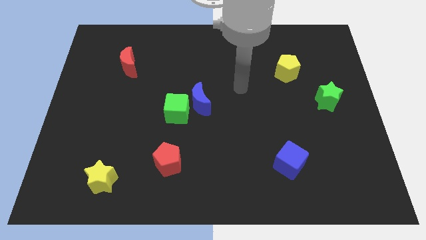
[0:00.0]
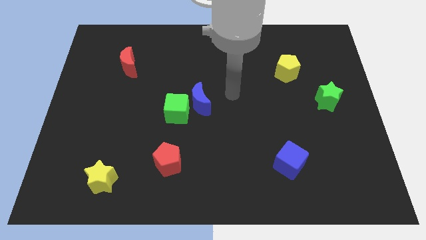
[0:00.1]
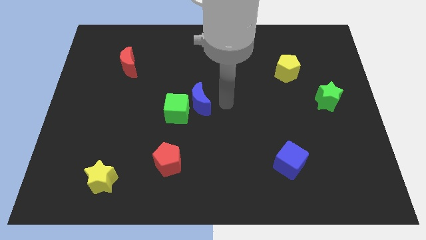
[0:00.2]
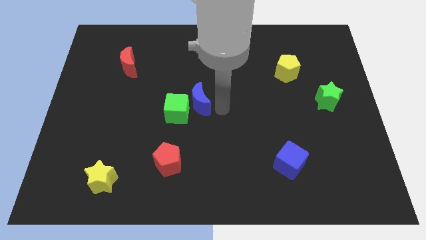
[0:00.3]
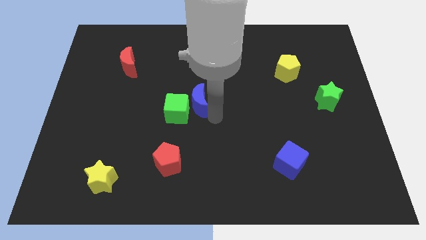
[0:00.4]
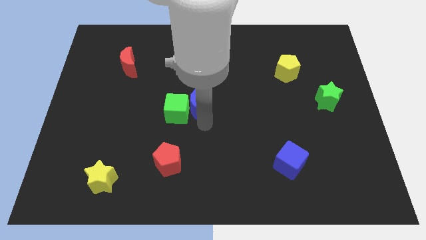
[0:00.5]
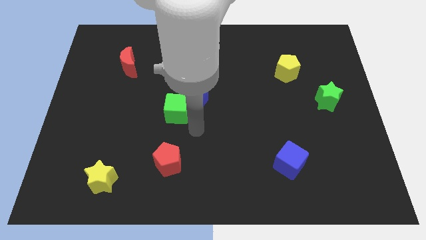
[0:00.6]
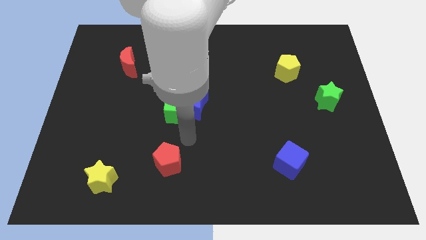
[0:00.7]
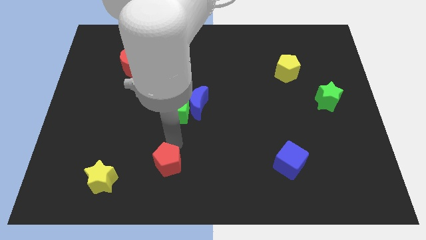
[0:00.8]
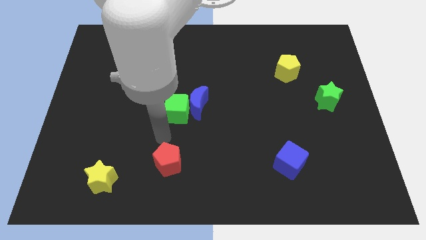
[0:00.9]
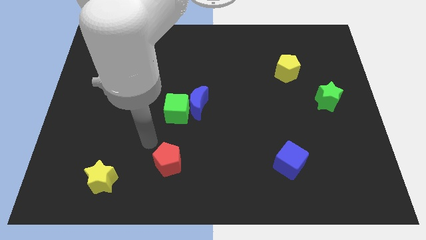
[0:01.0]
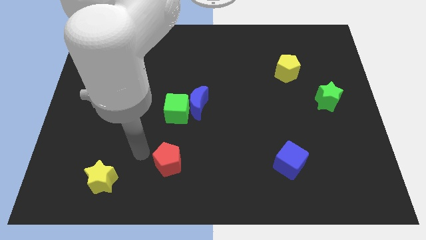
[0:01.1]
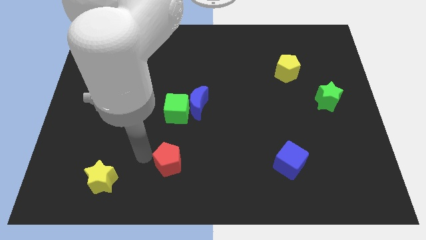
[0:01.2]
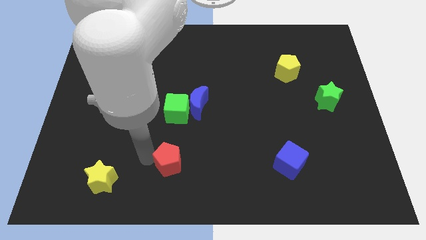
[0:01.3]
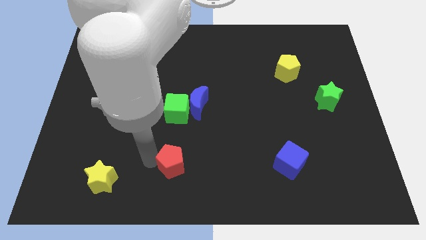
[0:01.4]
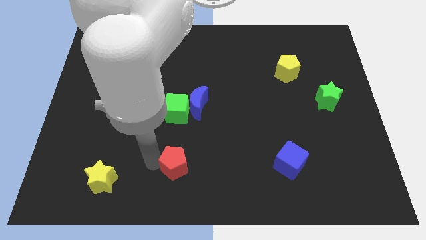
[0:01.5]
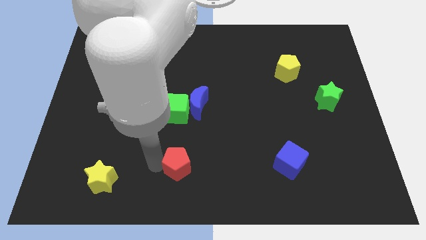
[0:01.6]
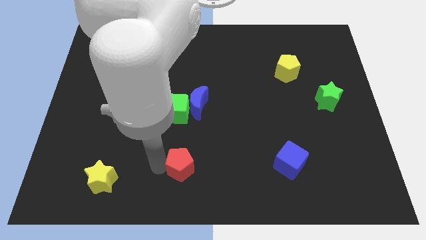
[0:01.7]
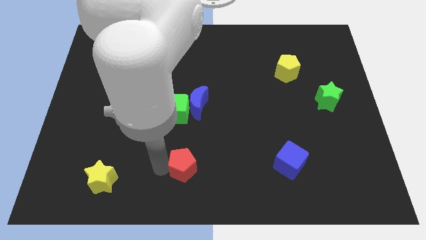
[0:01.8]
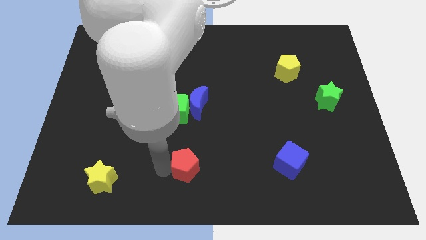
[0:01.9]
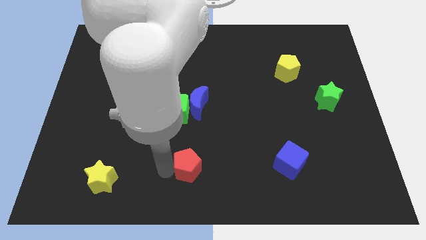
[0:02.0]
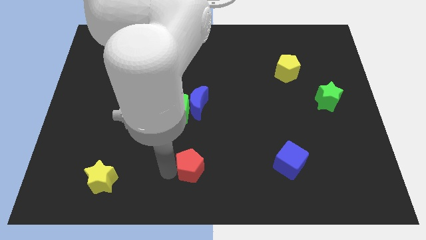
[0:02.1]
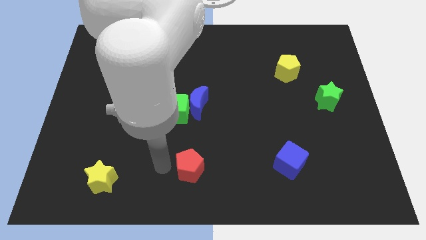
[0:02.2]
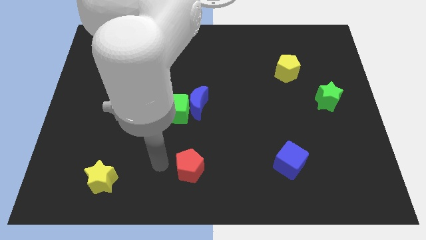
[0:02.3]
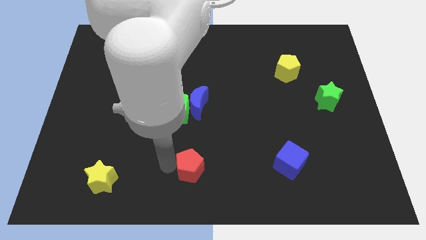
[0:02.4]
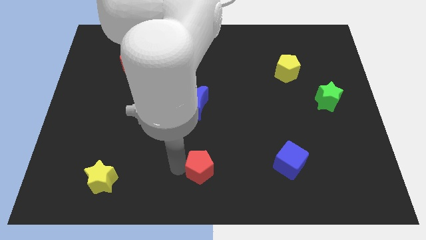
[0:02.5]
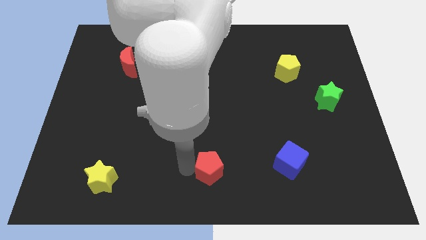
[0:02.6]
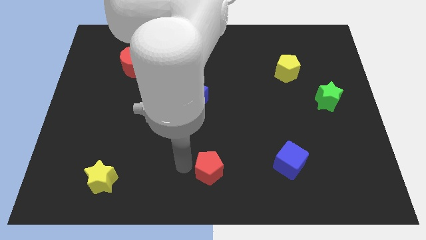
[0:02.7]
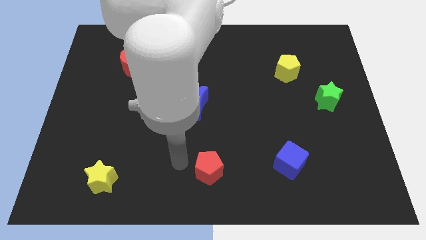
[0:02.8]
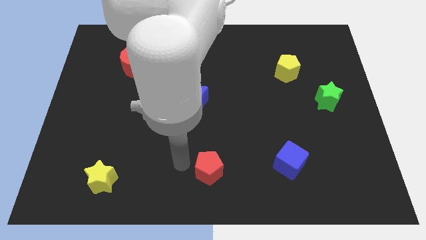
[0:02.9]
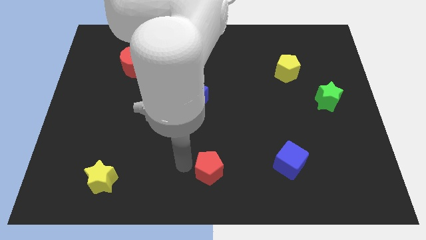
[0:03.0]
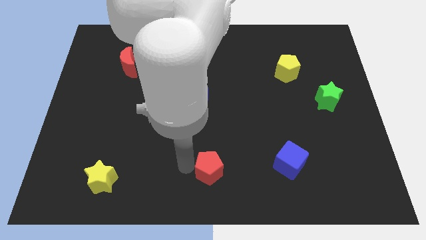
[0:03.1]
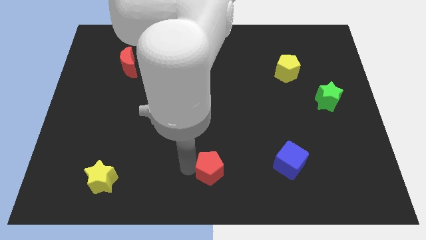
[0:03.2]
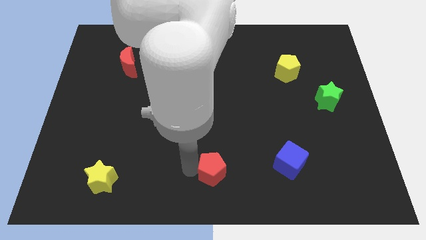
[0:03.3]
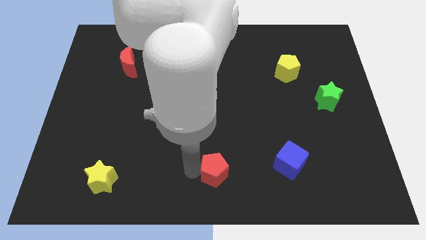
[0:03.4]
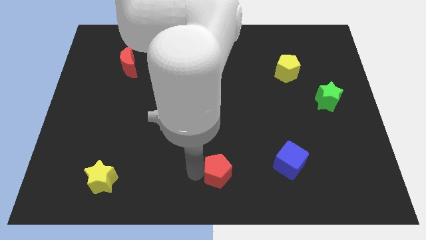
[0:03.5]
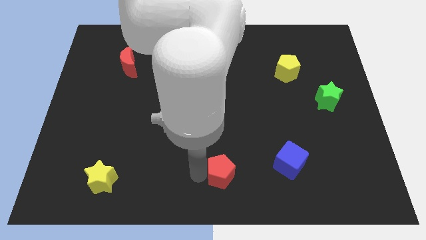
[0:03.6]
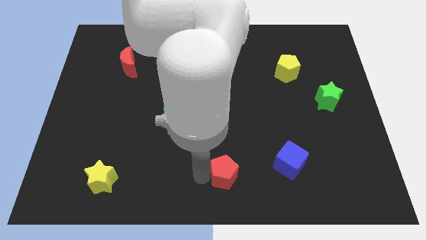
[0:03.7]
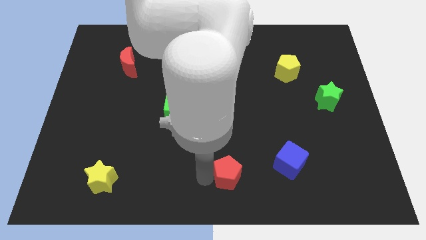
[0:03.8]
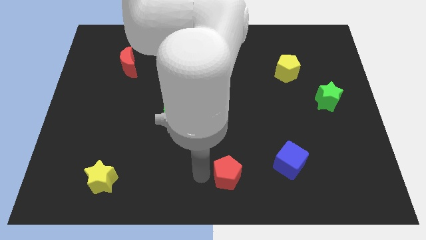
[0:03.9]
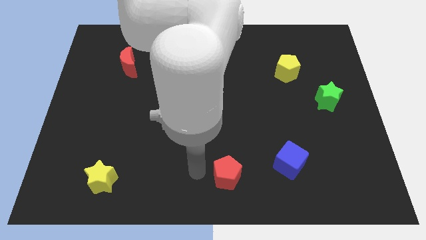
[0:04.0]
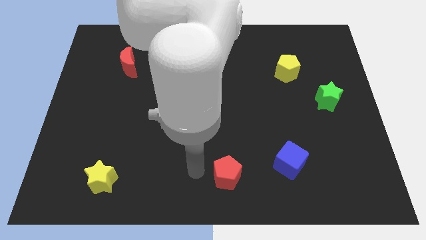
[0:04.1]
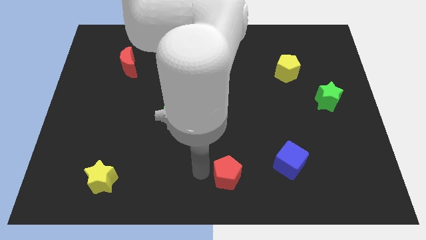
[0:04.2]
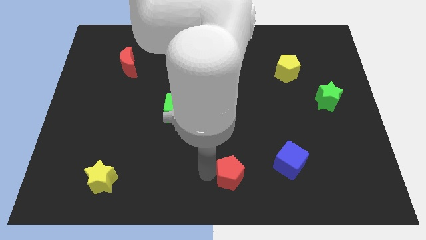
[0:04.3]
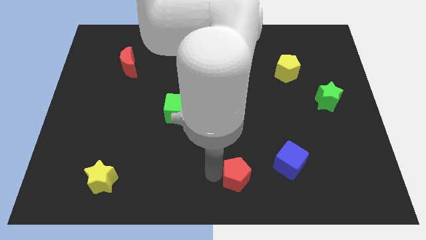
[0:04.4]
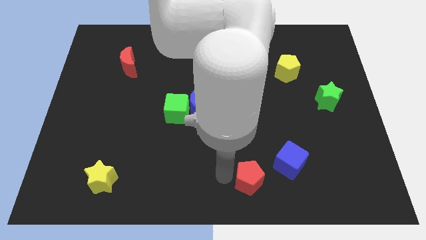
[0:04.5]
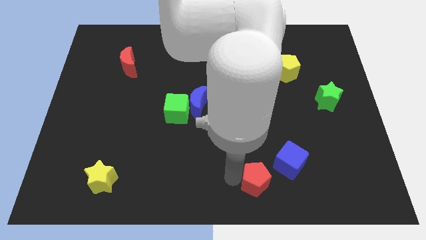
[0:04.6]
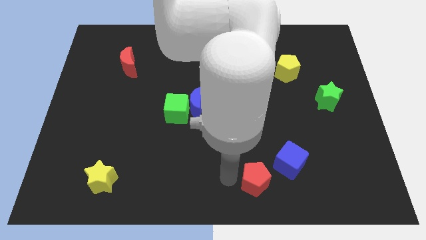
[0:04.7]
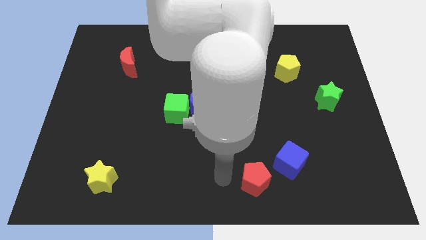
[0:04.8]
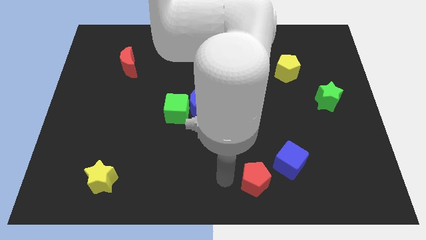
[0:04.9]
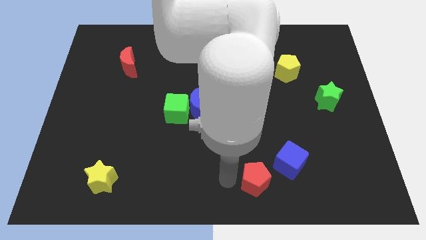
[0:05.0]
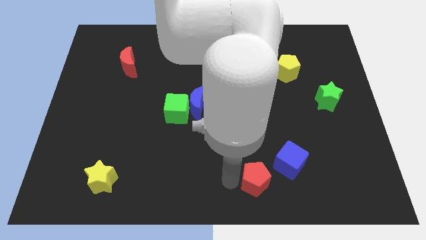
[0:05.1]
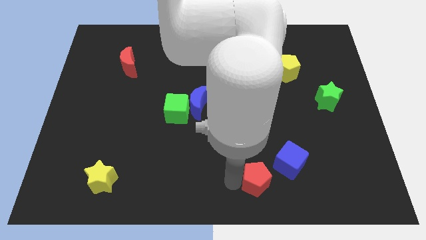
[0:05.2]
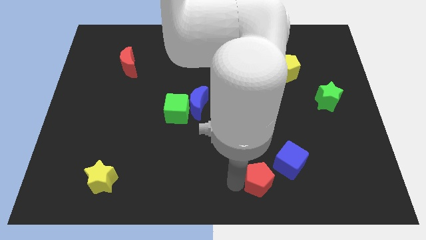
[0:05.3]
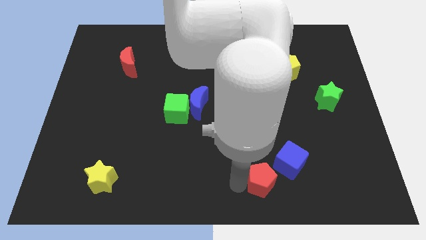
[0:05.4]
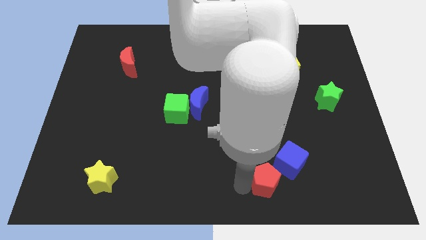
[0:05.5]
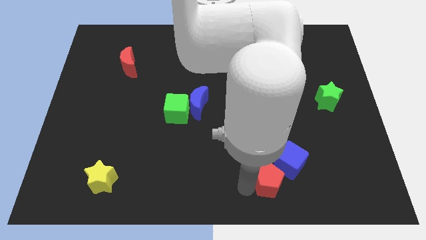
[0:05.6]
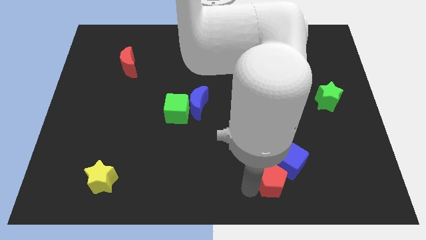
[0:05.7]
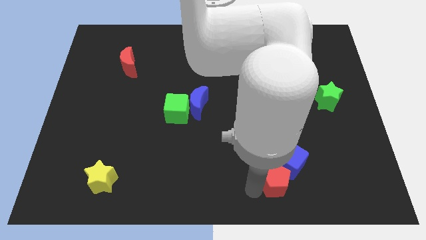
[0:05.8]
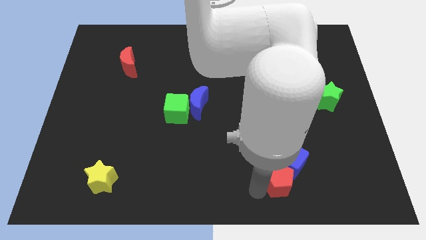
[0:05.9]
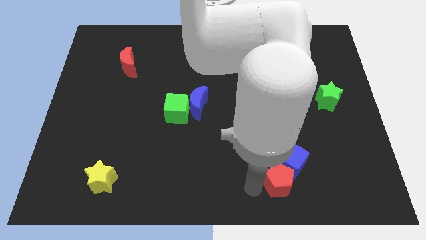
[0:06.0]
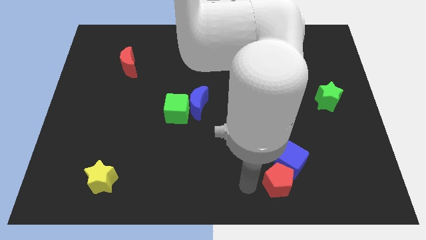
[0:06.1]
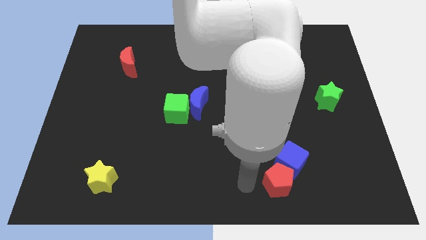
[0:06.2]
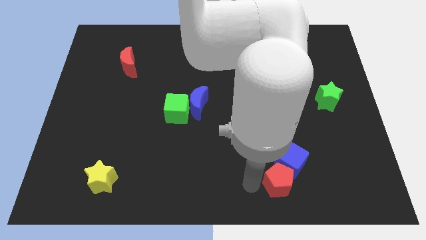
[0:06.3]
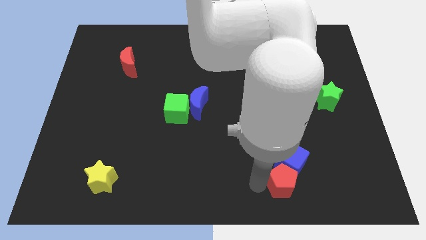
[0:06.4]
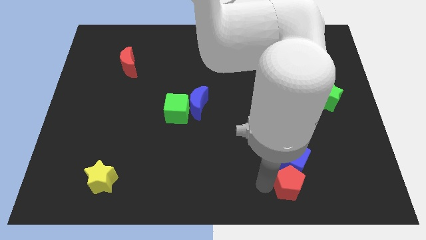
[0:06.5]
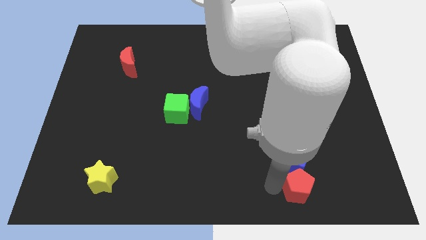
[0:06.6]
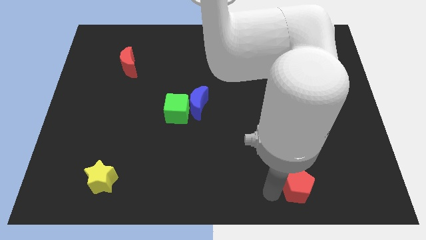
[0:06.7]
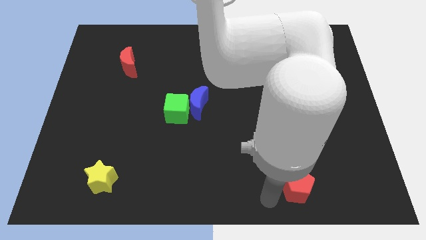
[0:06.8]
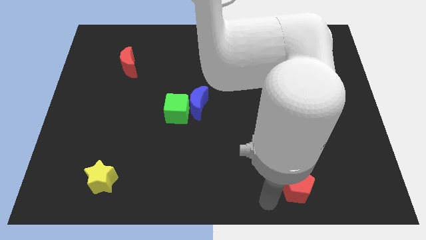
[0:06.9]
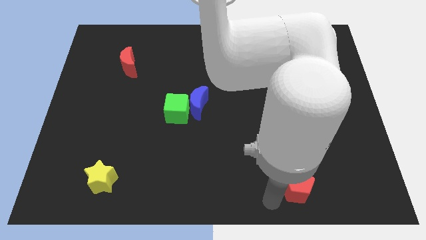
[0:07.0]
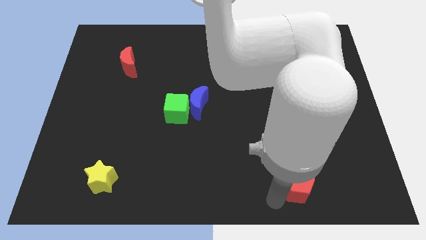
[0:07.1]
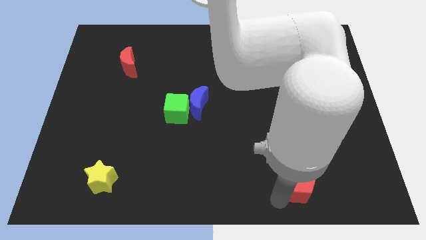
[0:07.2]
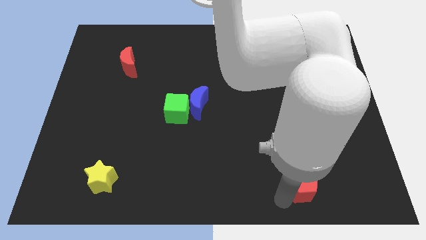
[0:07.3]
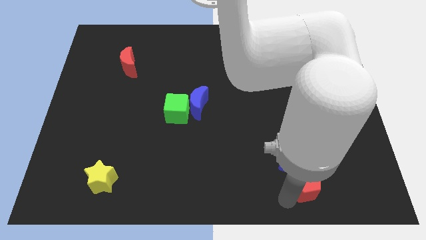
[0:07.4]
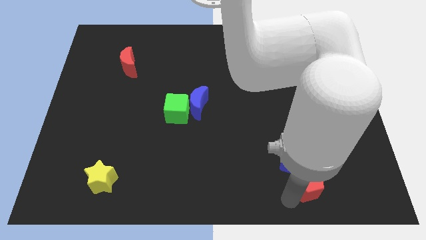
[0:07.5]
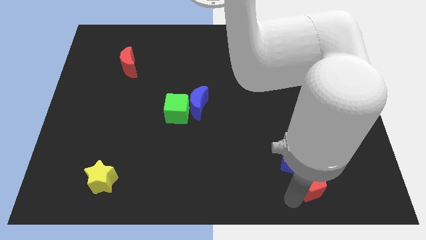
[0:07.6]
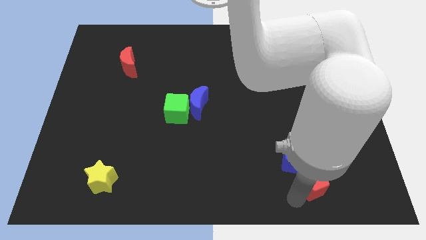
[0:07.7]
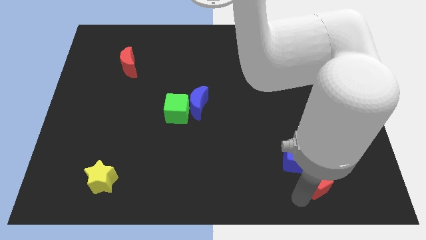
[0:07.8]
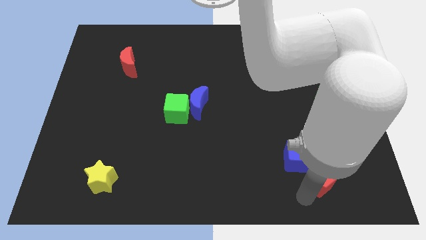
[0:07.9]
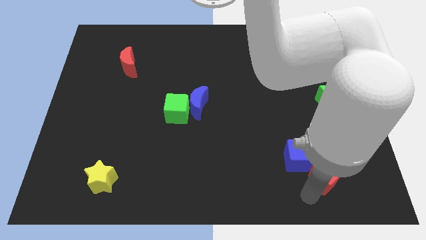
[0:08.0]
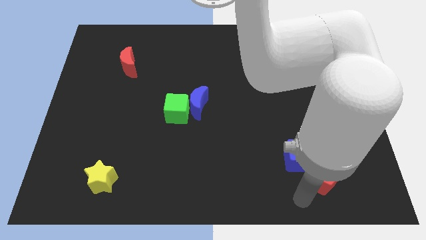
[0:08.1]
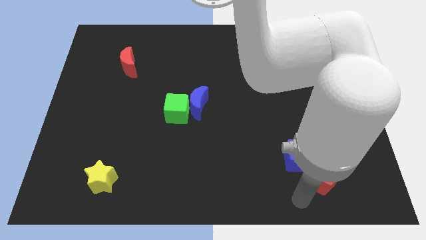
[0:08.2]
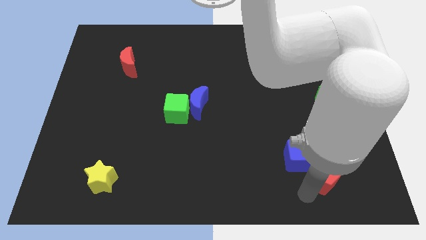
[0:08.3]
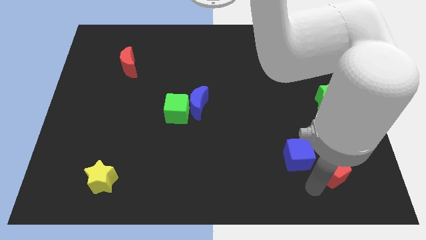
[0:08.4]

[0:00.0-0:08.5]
move the red pentagon to the right side of the blue cube
